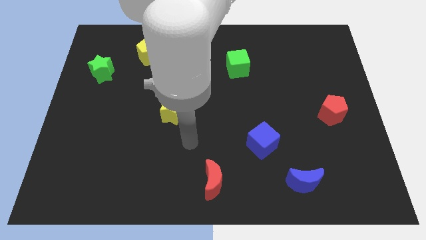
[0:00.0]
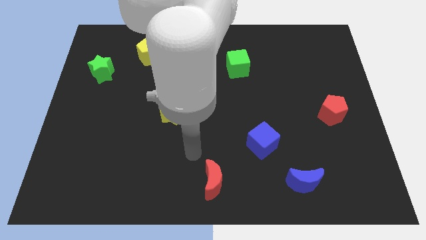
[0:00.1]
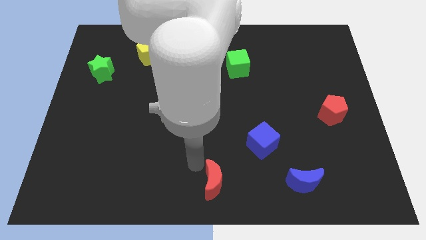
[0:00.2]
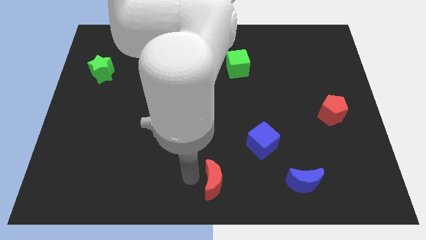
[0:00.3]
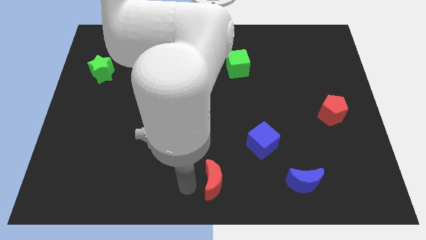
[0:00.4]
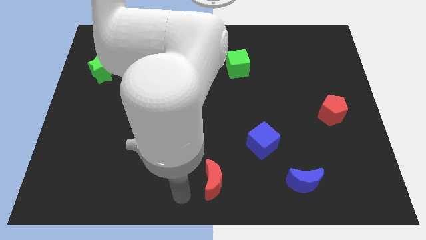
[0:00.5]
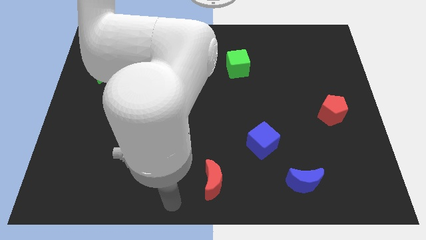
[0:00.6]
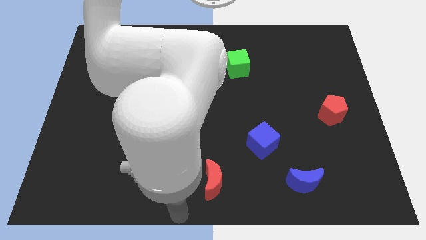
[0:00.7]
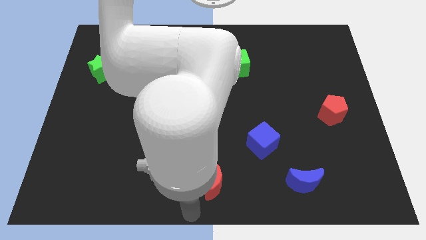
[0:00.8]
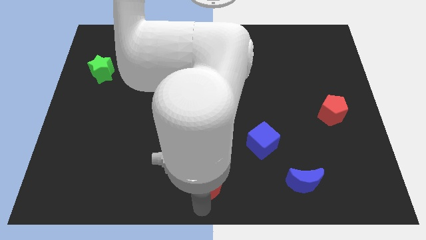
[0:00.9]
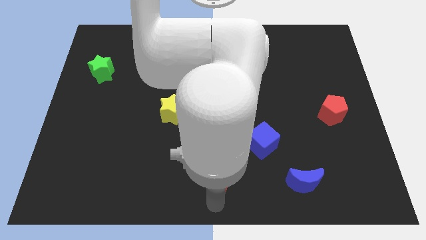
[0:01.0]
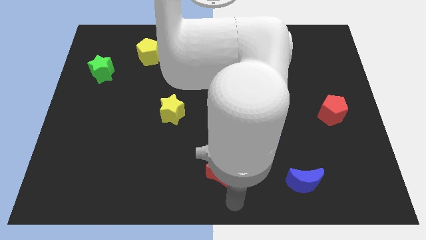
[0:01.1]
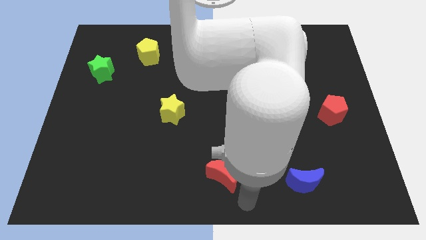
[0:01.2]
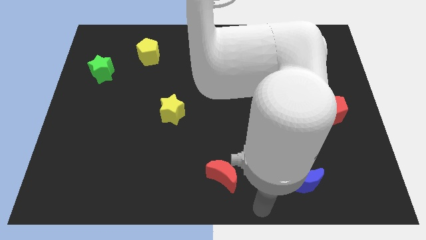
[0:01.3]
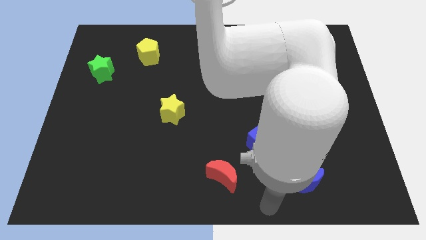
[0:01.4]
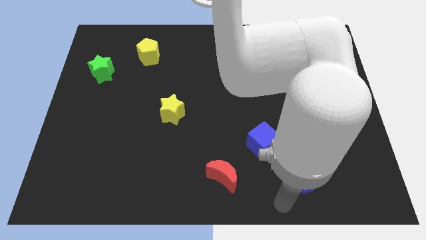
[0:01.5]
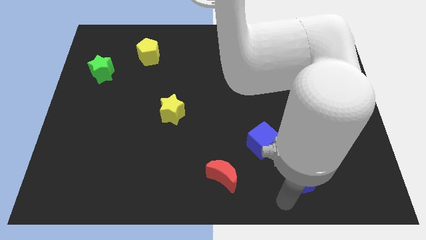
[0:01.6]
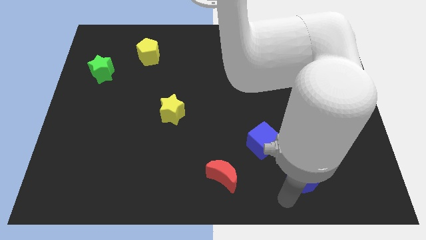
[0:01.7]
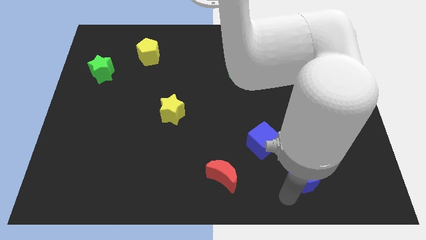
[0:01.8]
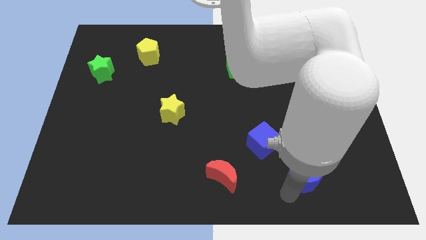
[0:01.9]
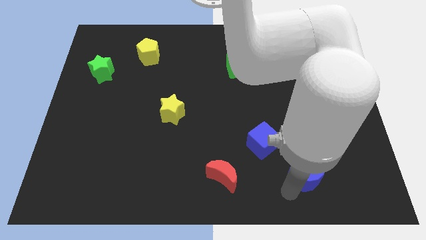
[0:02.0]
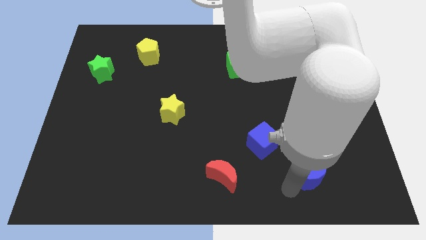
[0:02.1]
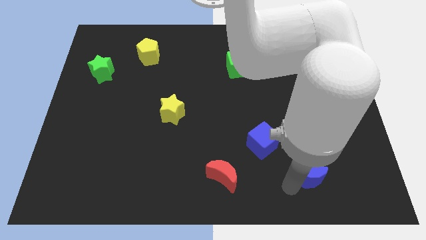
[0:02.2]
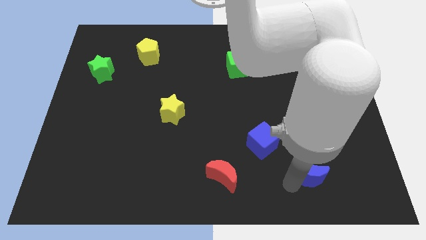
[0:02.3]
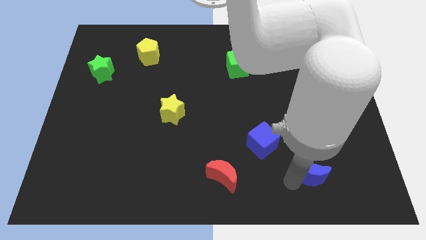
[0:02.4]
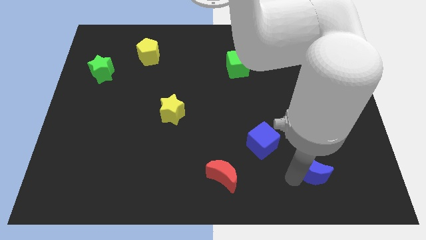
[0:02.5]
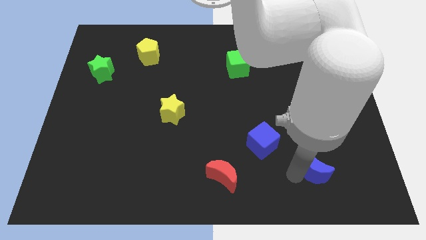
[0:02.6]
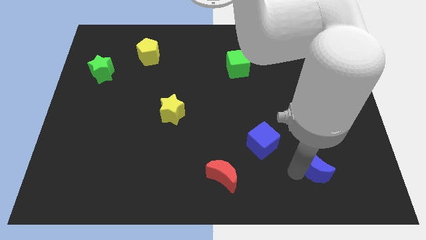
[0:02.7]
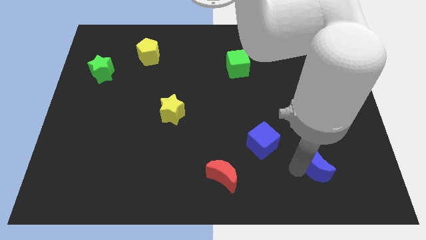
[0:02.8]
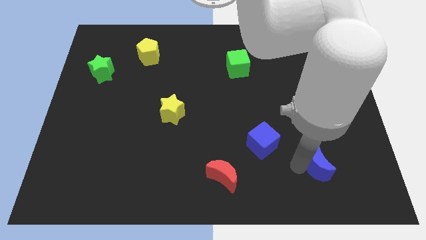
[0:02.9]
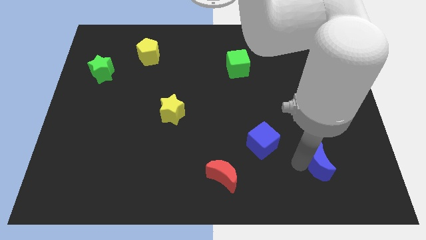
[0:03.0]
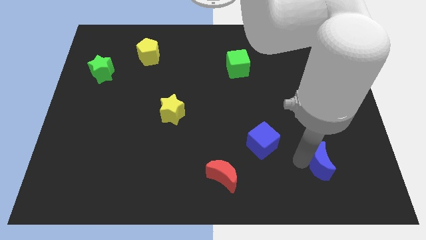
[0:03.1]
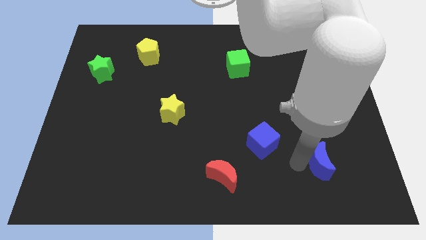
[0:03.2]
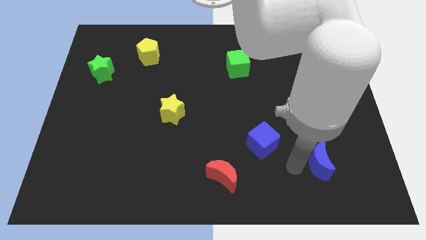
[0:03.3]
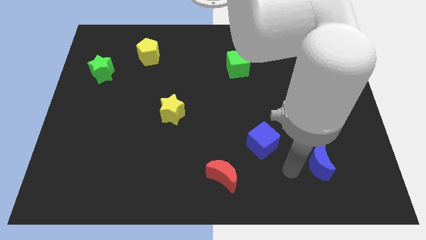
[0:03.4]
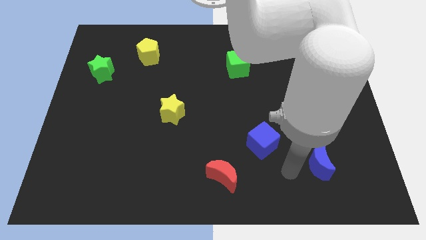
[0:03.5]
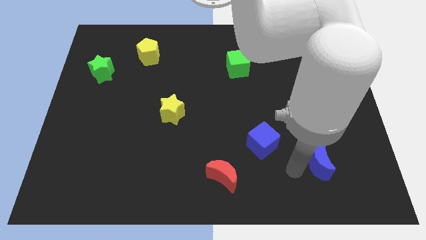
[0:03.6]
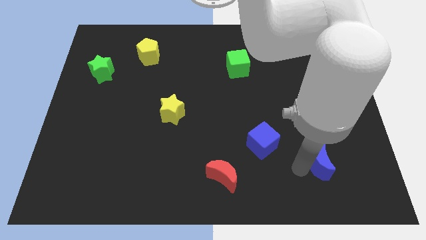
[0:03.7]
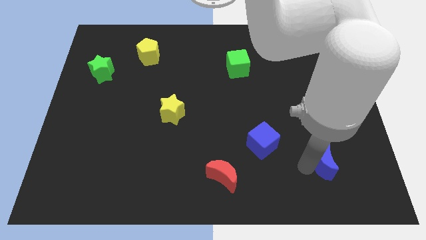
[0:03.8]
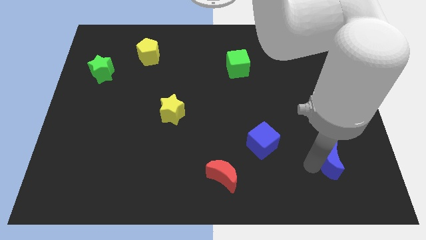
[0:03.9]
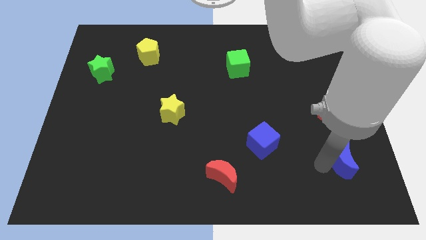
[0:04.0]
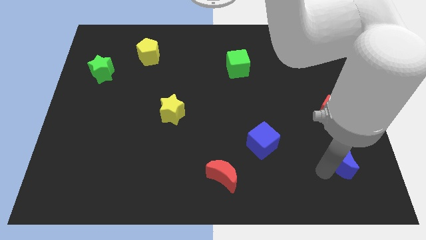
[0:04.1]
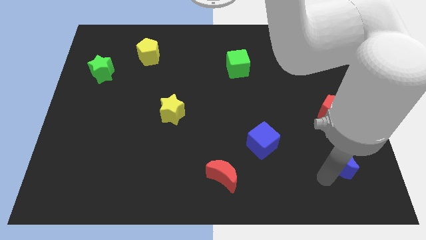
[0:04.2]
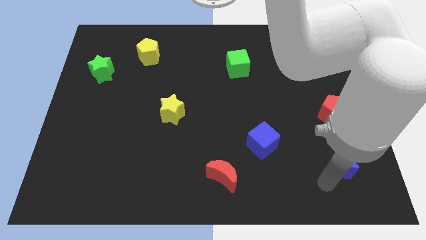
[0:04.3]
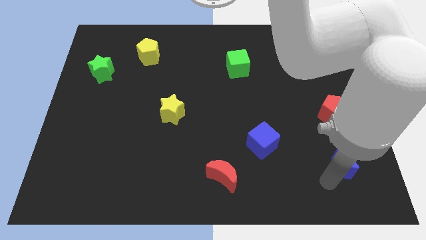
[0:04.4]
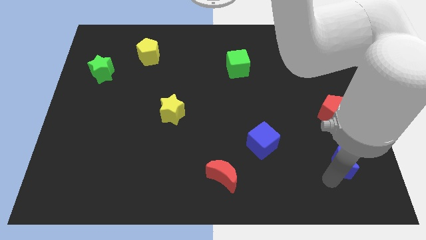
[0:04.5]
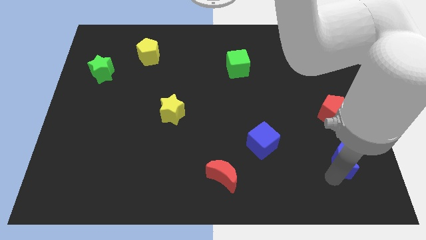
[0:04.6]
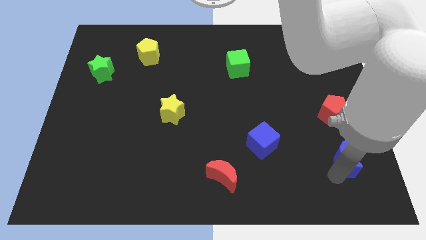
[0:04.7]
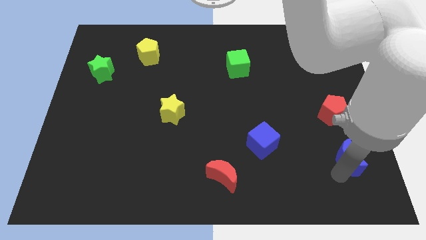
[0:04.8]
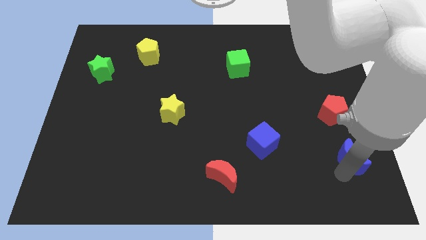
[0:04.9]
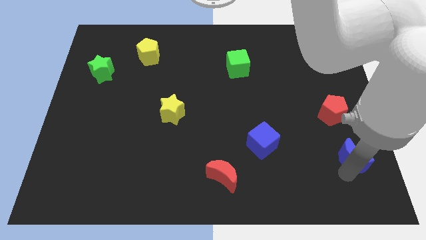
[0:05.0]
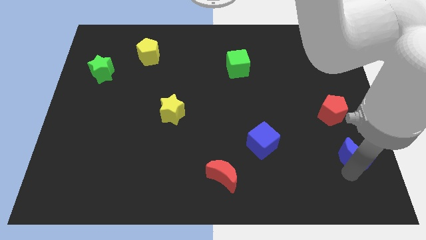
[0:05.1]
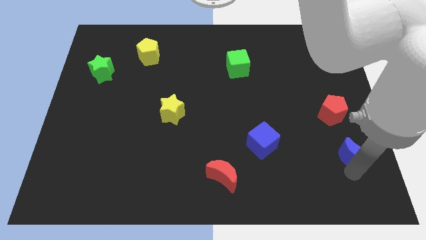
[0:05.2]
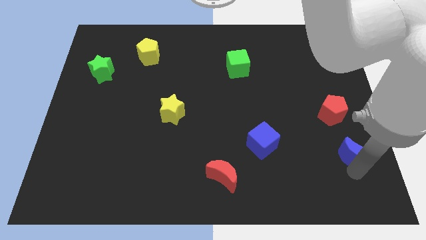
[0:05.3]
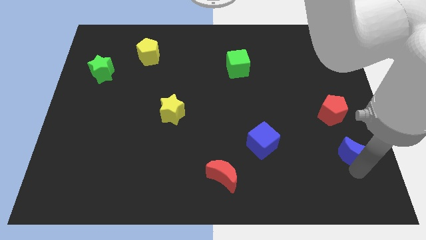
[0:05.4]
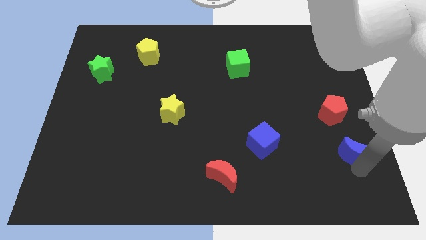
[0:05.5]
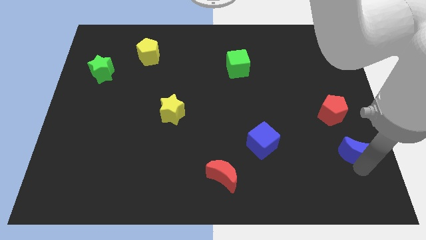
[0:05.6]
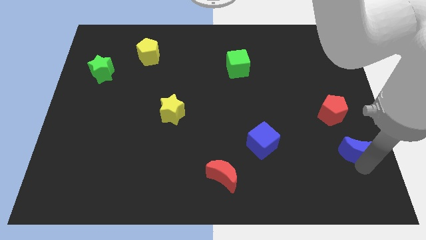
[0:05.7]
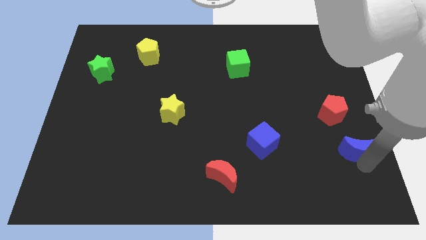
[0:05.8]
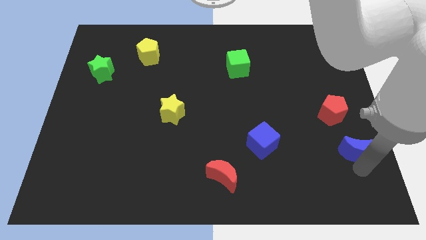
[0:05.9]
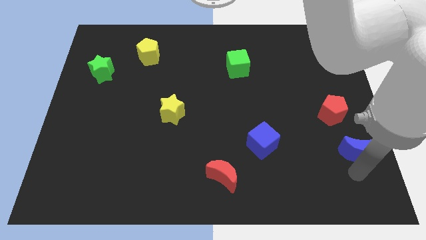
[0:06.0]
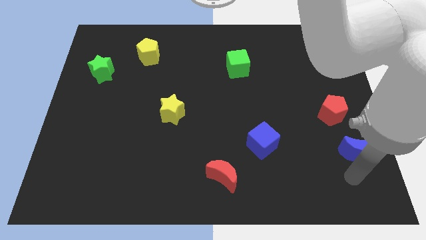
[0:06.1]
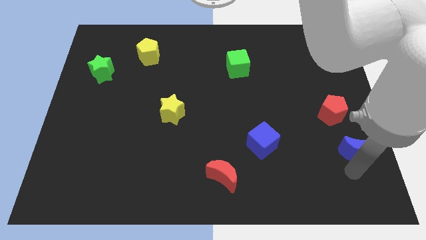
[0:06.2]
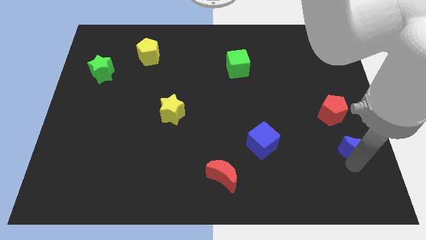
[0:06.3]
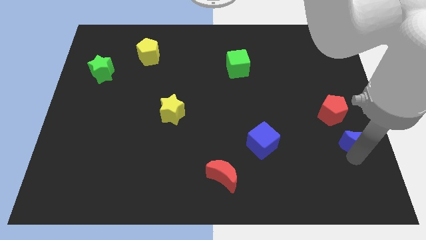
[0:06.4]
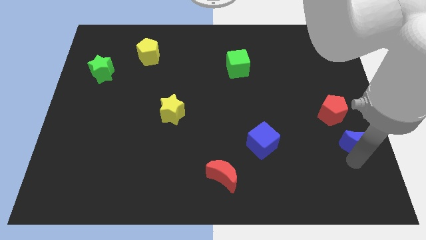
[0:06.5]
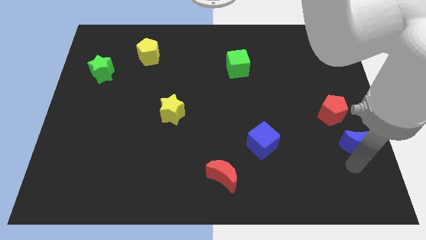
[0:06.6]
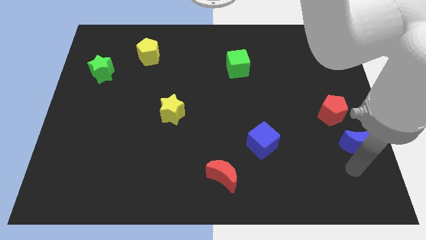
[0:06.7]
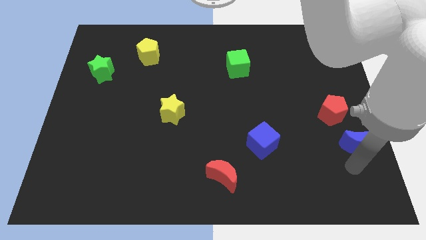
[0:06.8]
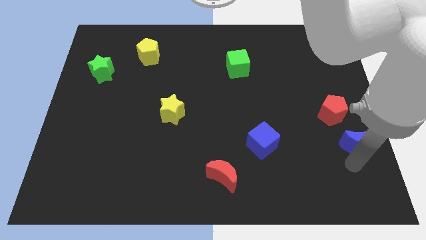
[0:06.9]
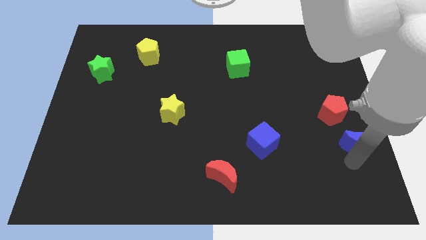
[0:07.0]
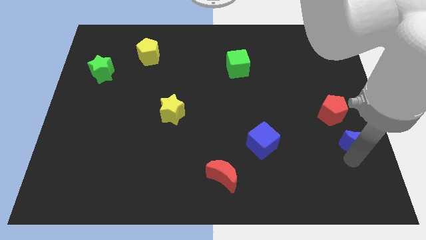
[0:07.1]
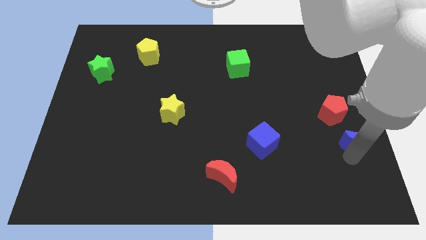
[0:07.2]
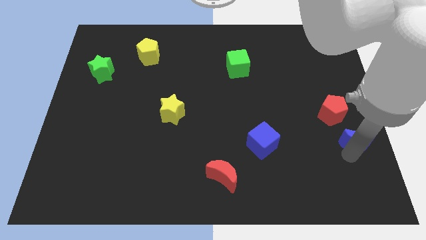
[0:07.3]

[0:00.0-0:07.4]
move the blue moon to the center right

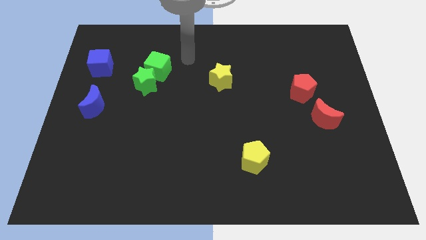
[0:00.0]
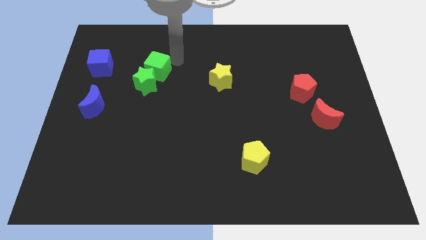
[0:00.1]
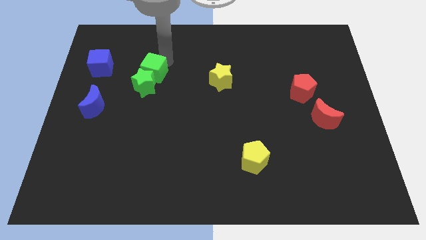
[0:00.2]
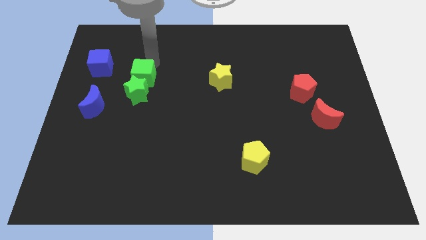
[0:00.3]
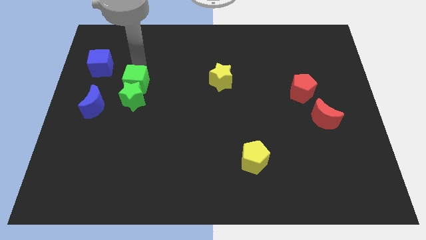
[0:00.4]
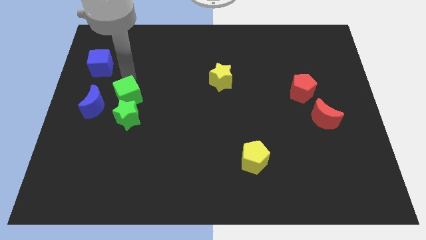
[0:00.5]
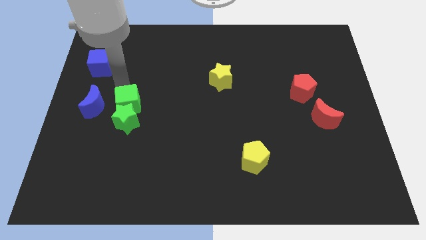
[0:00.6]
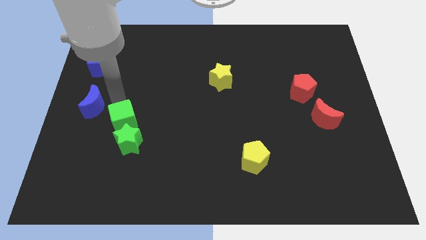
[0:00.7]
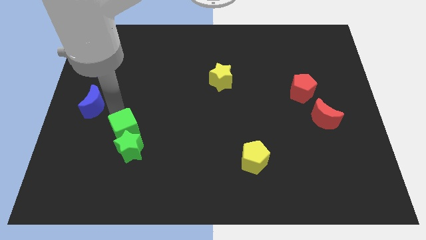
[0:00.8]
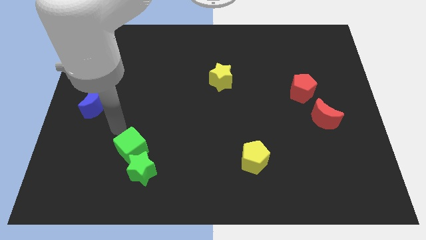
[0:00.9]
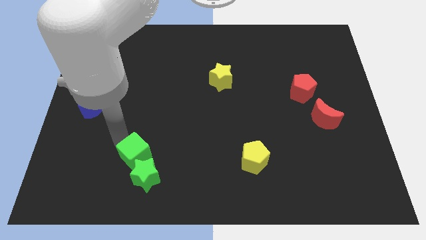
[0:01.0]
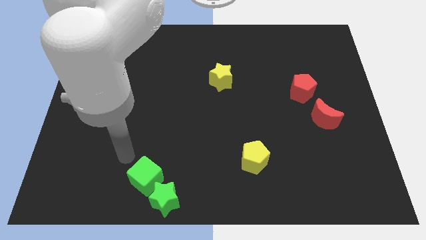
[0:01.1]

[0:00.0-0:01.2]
put the green star to the bottom side
